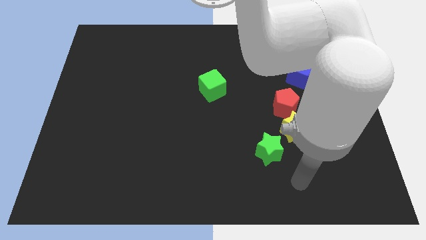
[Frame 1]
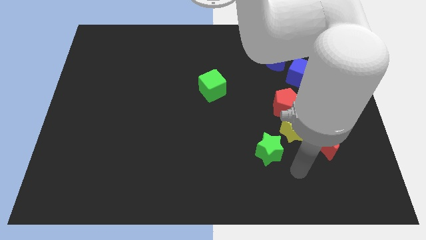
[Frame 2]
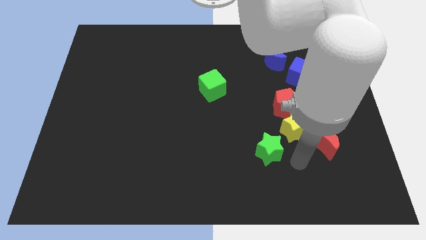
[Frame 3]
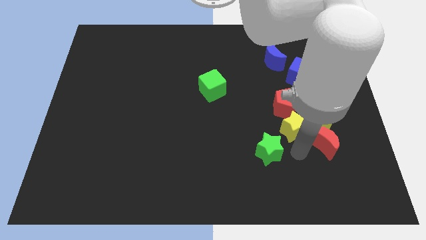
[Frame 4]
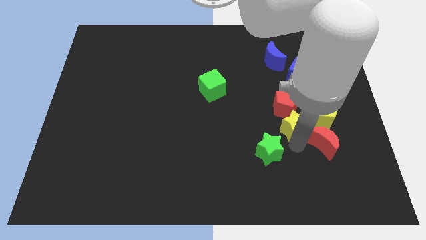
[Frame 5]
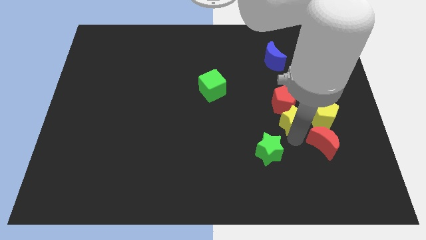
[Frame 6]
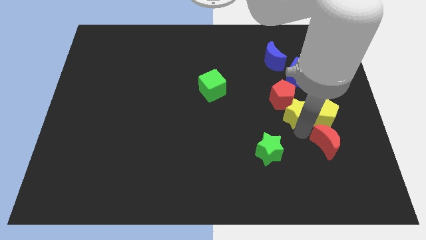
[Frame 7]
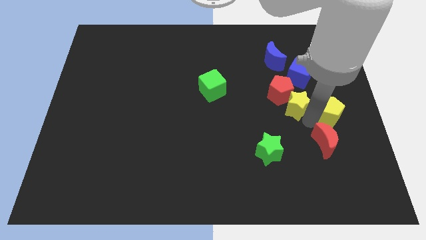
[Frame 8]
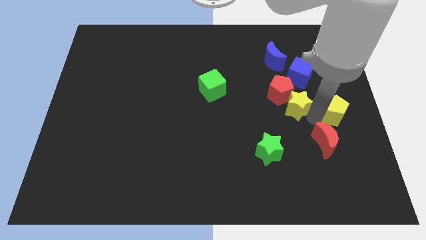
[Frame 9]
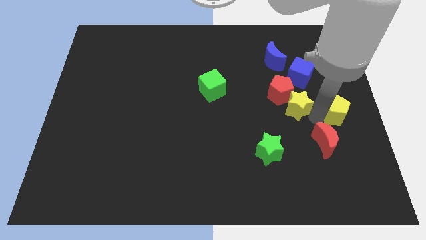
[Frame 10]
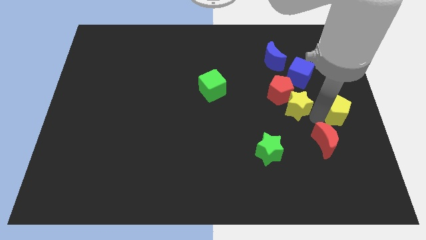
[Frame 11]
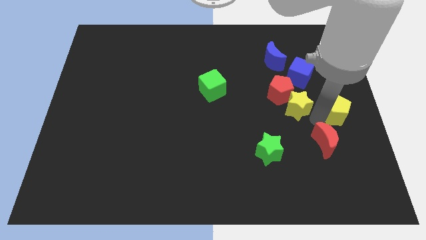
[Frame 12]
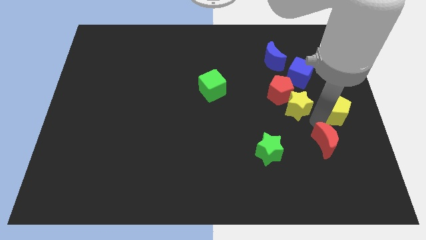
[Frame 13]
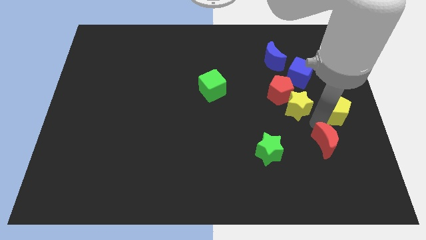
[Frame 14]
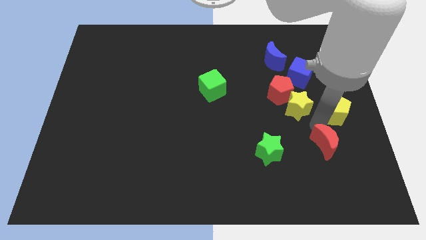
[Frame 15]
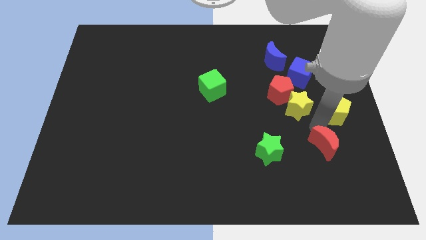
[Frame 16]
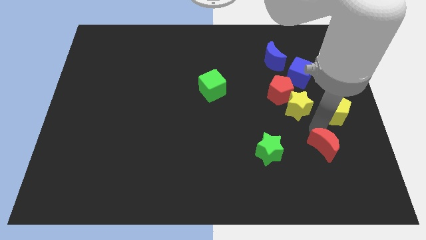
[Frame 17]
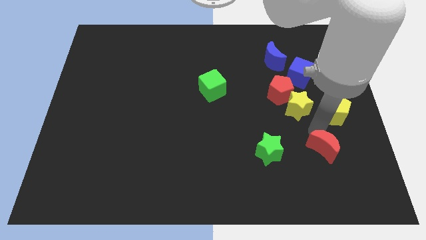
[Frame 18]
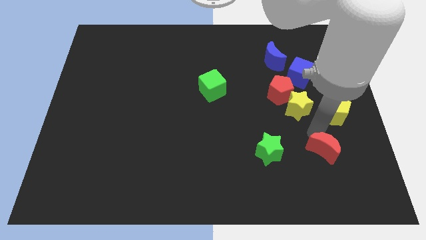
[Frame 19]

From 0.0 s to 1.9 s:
move the red moon away from the yellow star and yellow pentagon

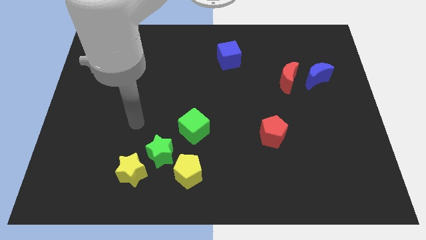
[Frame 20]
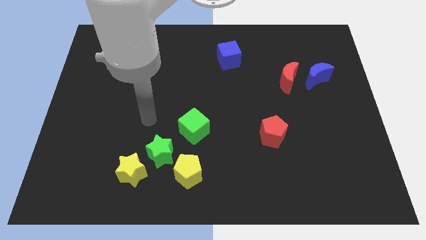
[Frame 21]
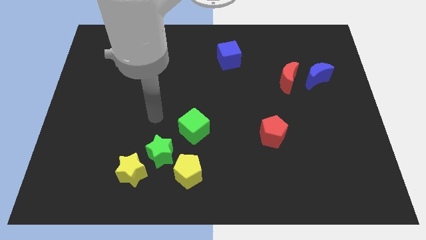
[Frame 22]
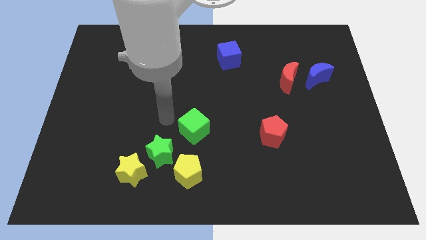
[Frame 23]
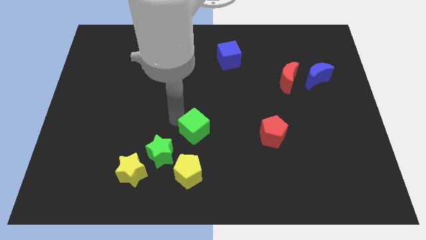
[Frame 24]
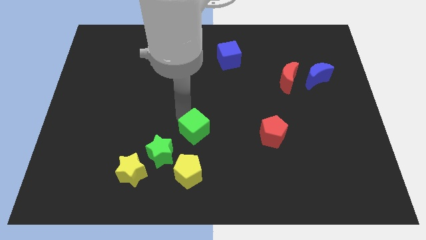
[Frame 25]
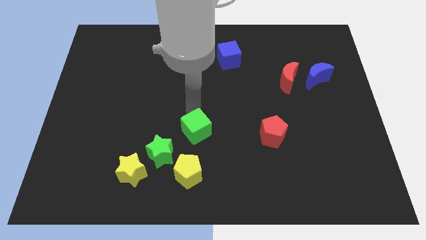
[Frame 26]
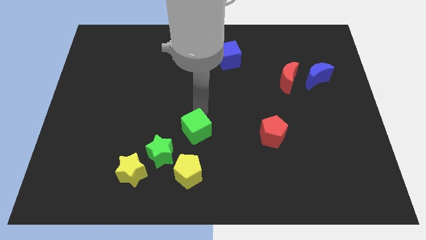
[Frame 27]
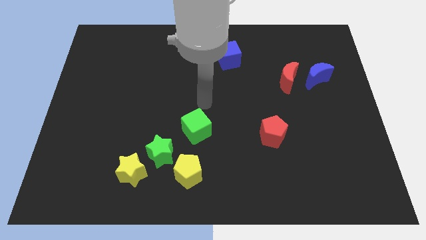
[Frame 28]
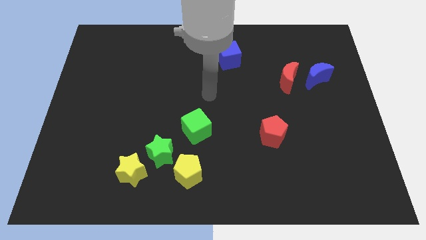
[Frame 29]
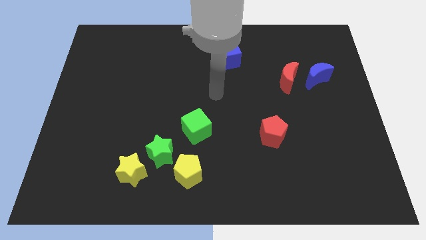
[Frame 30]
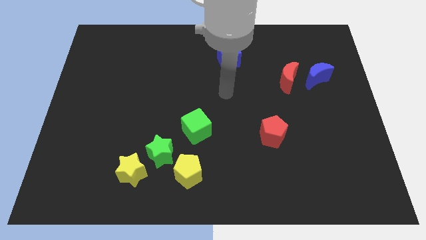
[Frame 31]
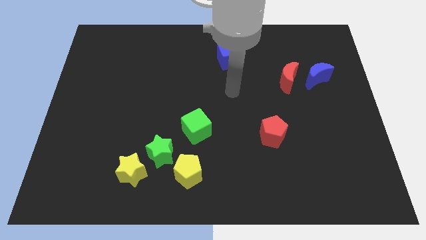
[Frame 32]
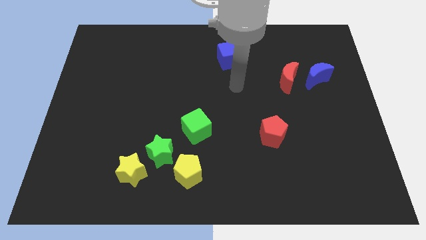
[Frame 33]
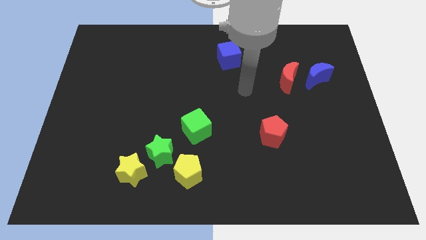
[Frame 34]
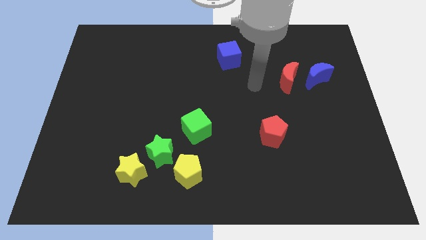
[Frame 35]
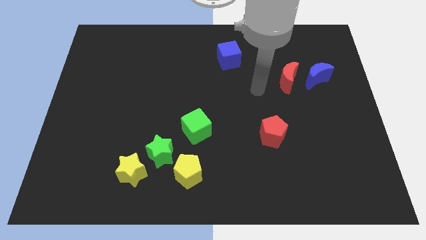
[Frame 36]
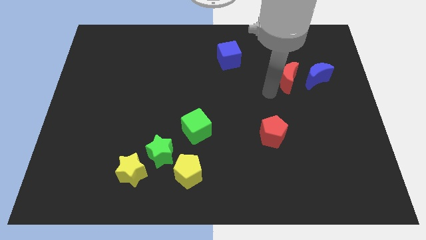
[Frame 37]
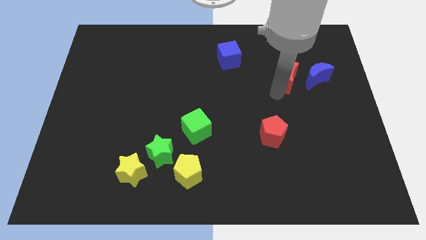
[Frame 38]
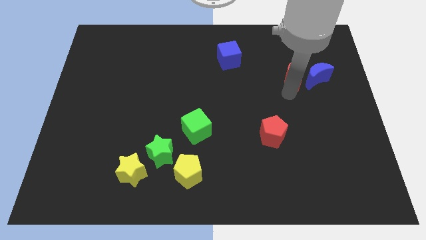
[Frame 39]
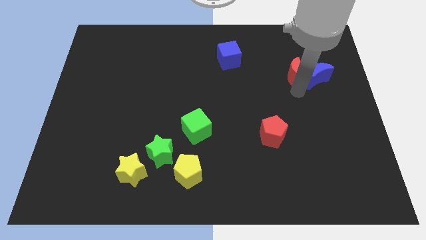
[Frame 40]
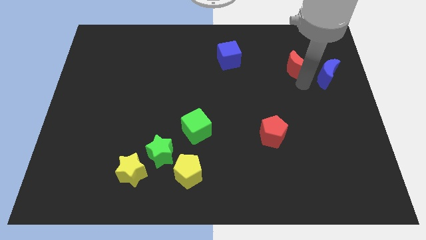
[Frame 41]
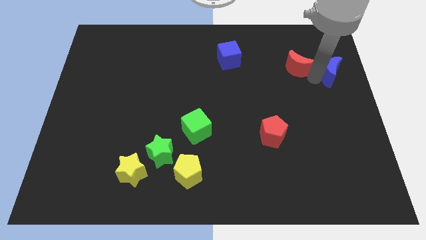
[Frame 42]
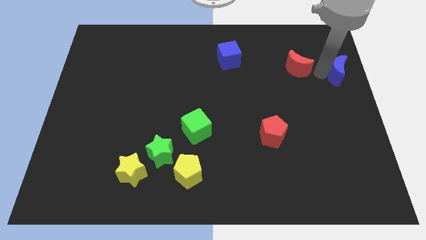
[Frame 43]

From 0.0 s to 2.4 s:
pull the red moon apart from the blue moon

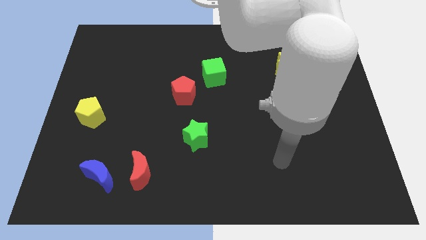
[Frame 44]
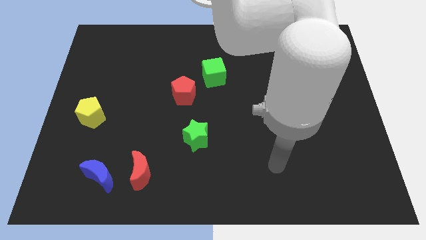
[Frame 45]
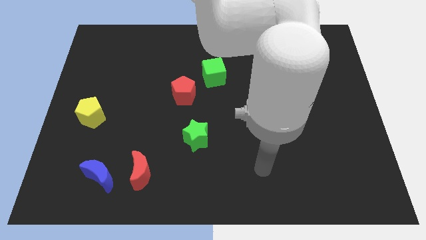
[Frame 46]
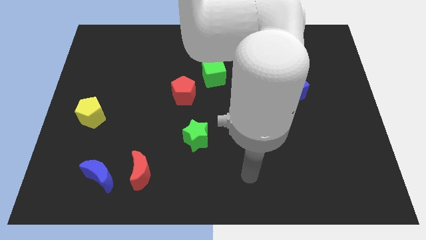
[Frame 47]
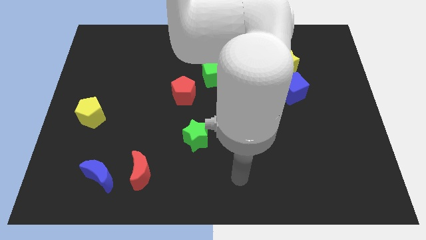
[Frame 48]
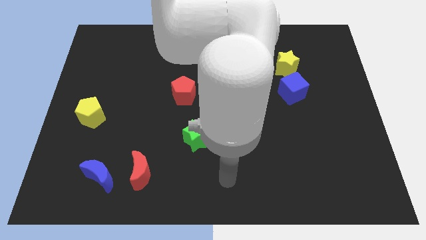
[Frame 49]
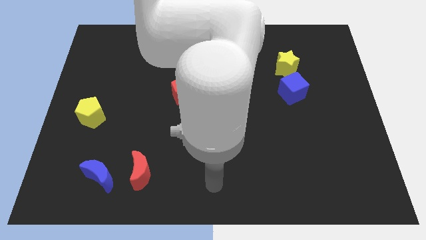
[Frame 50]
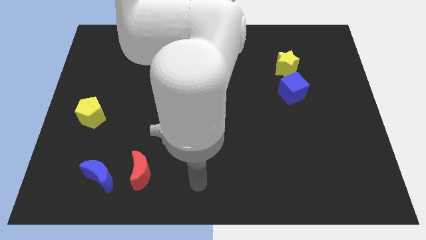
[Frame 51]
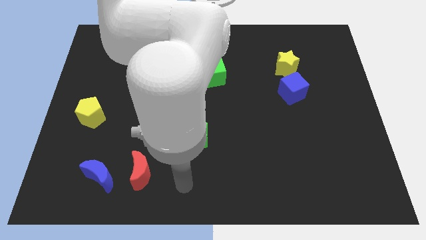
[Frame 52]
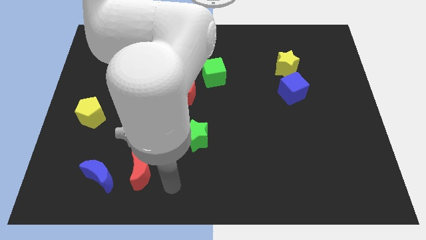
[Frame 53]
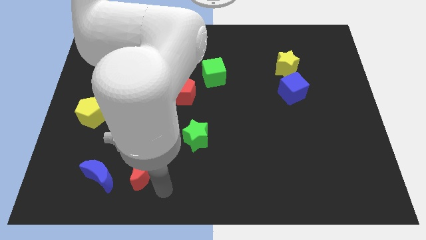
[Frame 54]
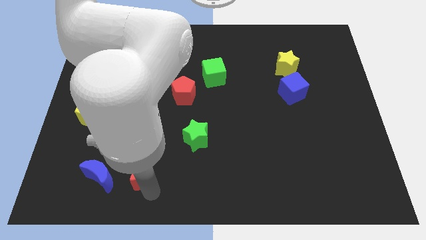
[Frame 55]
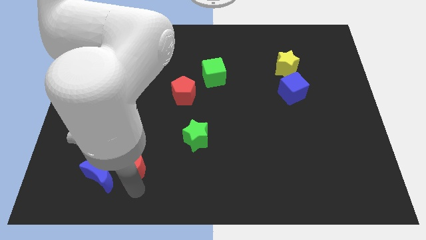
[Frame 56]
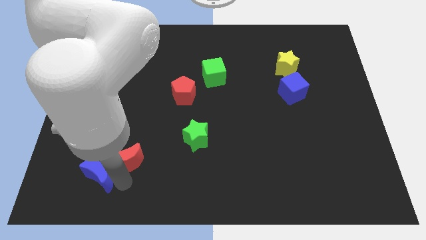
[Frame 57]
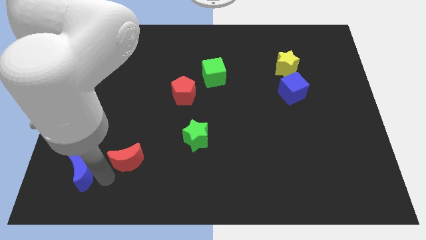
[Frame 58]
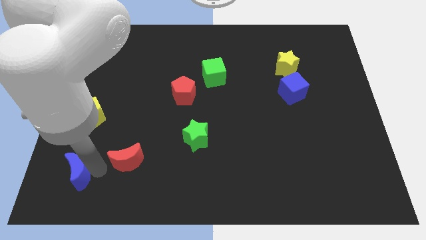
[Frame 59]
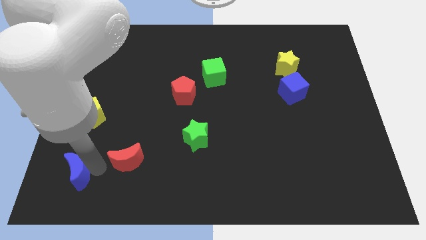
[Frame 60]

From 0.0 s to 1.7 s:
separate the red moon from the blue moon

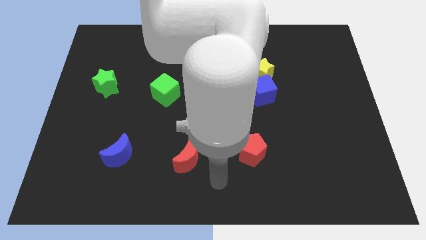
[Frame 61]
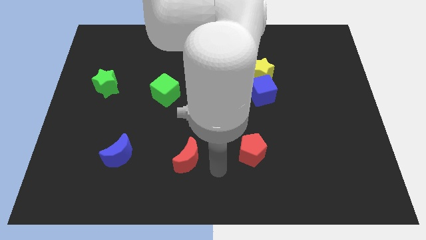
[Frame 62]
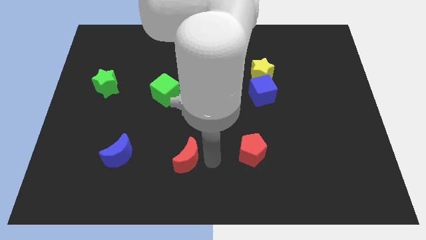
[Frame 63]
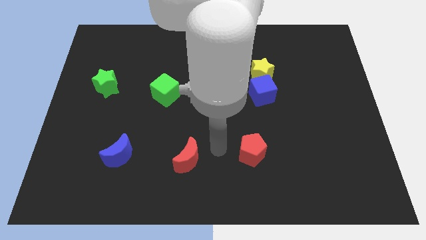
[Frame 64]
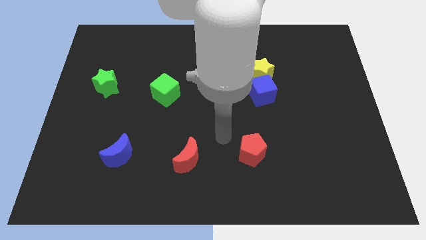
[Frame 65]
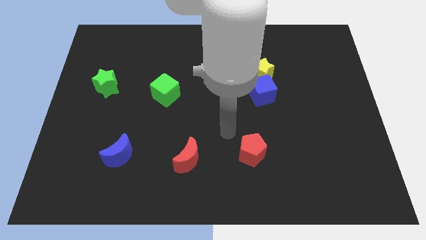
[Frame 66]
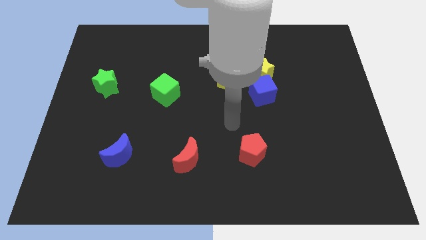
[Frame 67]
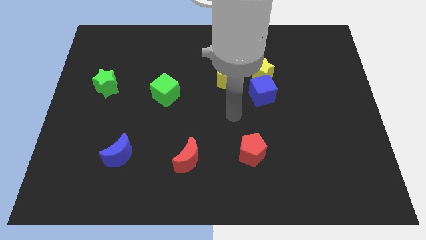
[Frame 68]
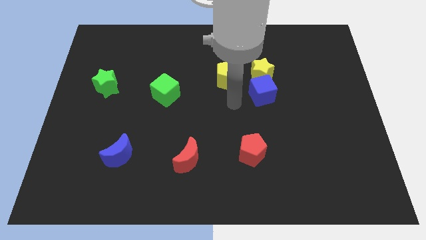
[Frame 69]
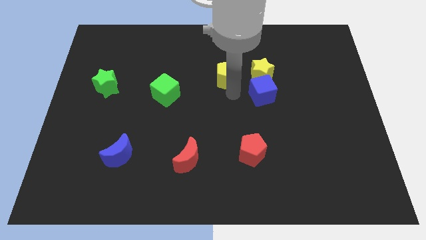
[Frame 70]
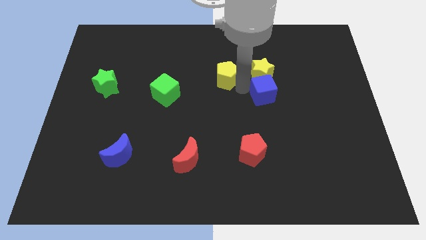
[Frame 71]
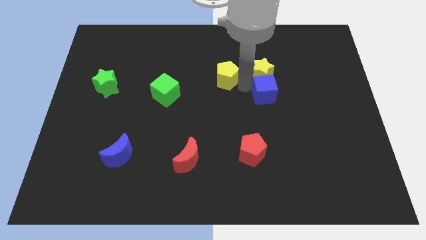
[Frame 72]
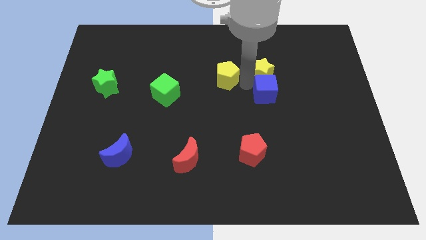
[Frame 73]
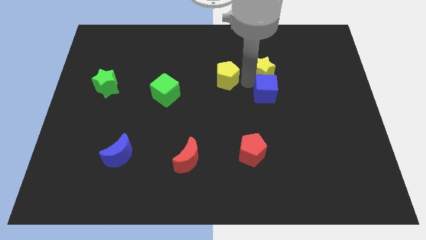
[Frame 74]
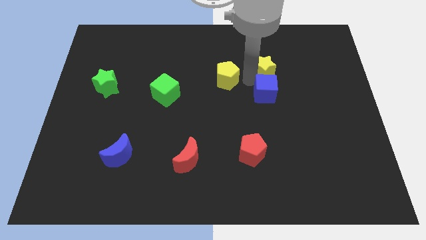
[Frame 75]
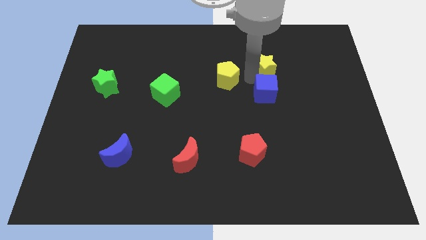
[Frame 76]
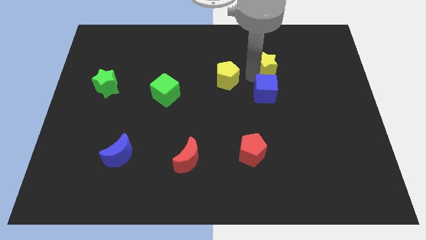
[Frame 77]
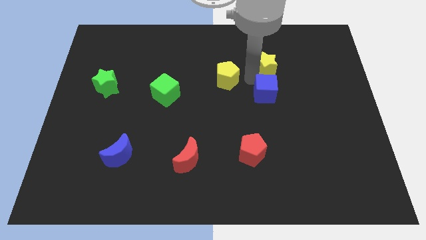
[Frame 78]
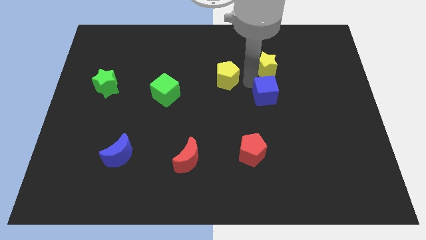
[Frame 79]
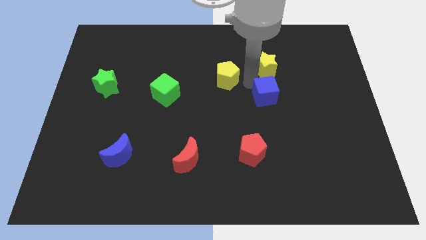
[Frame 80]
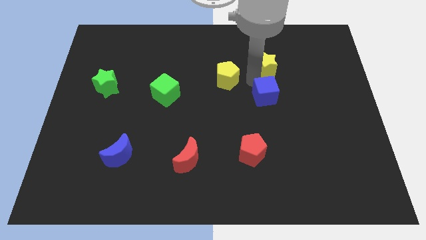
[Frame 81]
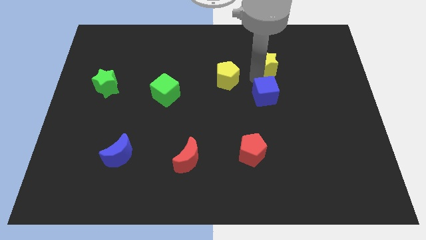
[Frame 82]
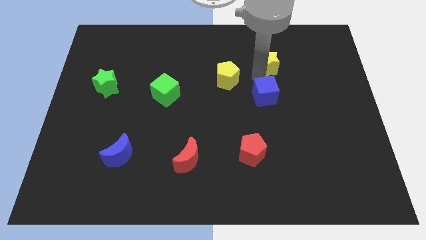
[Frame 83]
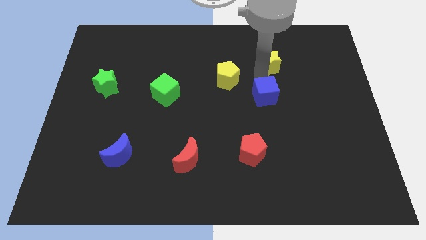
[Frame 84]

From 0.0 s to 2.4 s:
move the yellow star away from the blue cube and yellow pentagon

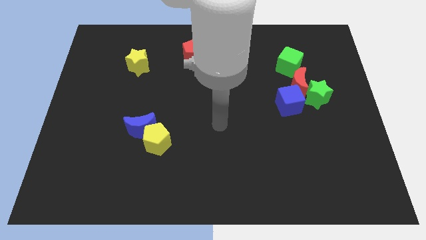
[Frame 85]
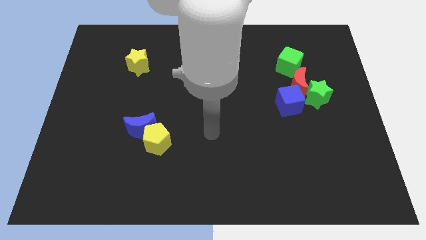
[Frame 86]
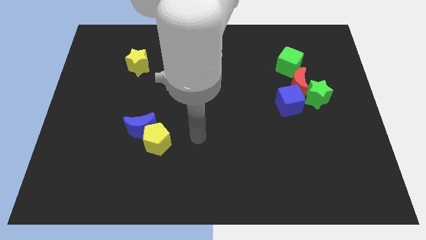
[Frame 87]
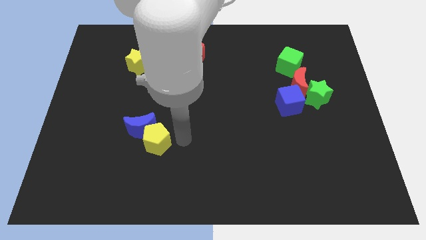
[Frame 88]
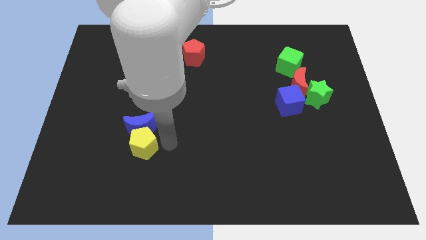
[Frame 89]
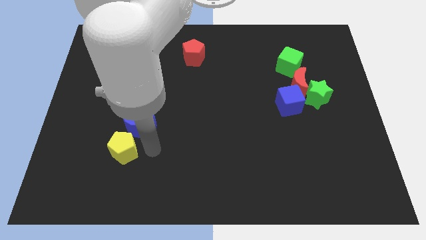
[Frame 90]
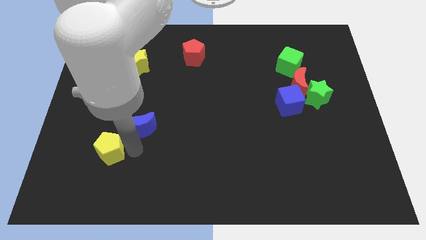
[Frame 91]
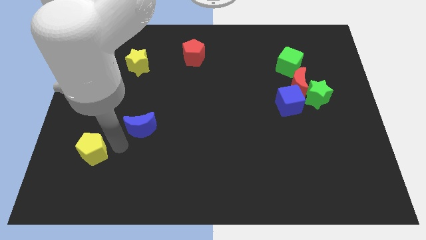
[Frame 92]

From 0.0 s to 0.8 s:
separate the blue moon from the yellow pentagon
